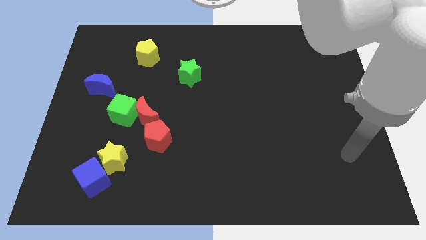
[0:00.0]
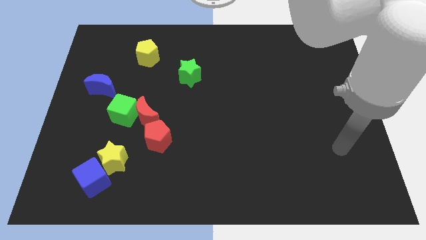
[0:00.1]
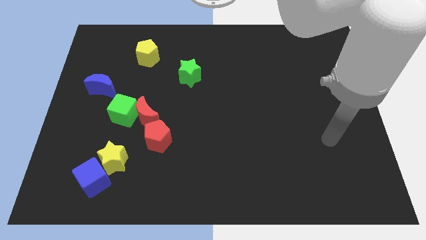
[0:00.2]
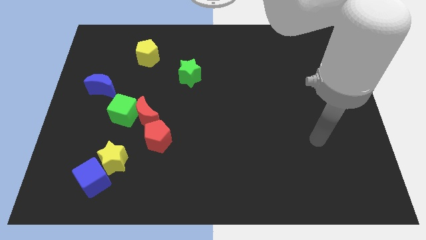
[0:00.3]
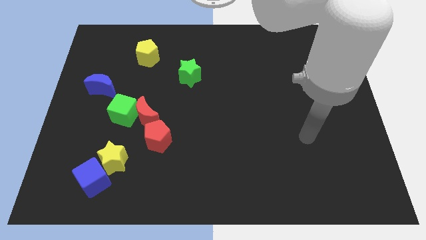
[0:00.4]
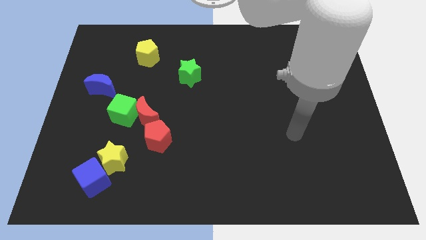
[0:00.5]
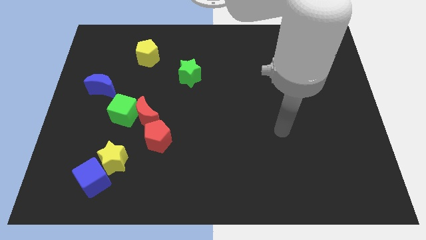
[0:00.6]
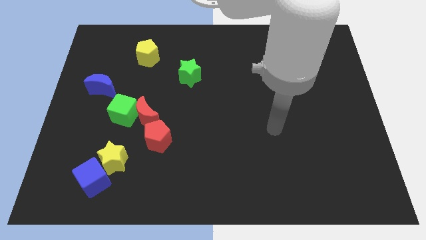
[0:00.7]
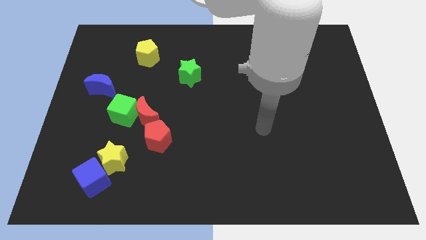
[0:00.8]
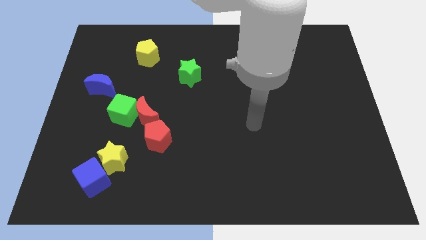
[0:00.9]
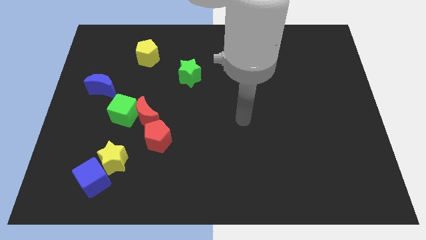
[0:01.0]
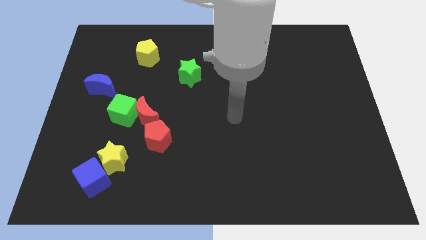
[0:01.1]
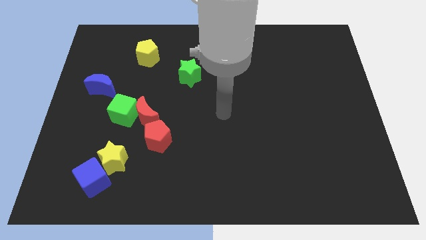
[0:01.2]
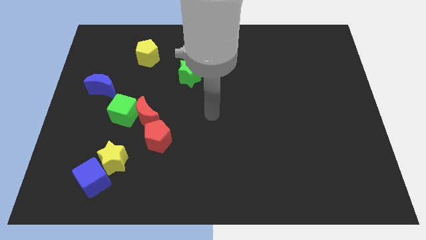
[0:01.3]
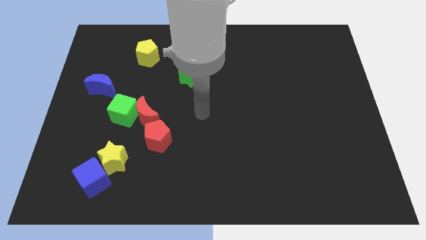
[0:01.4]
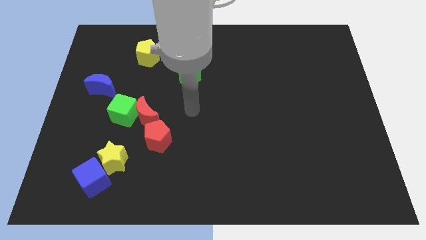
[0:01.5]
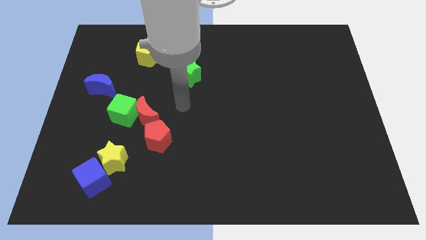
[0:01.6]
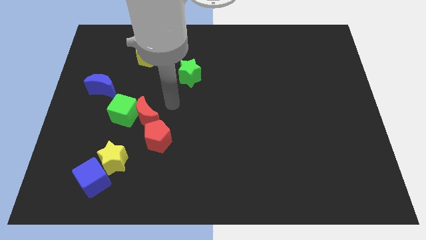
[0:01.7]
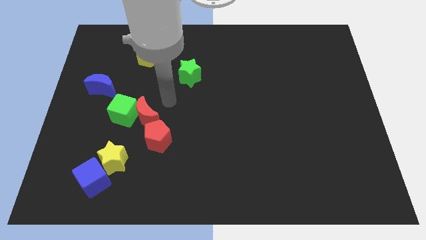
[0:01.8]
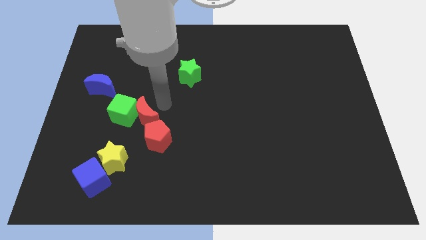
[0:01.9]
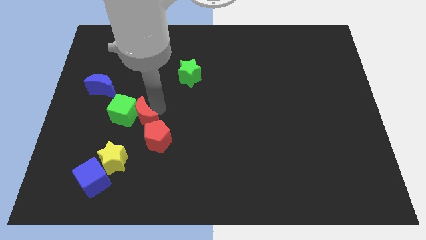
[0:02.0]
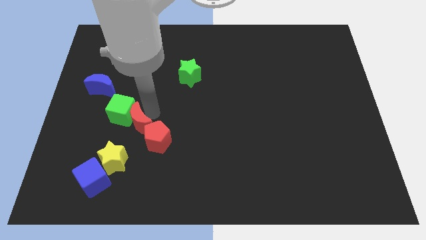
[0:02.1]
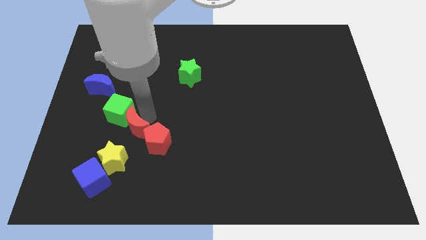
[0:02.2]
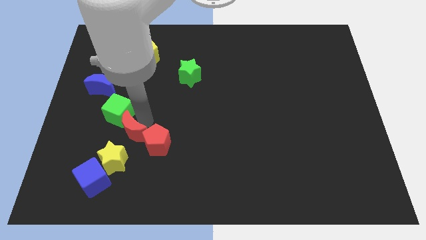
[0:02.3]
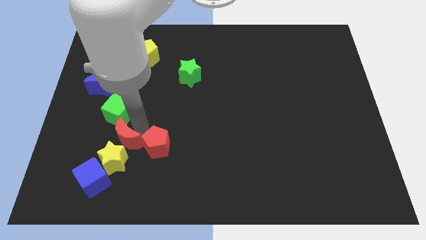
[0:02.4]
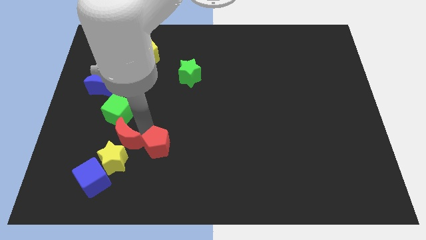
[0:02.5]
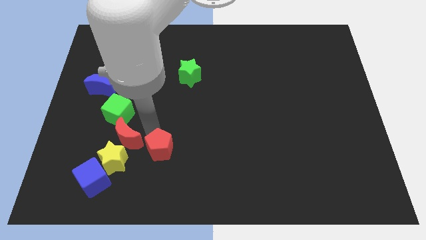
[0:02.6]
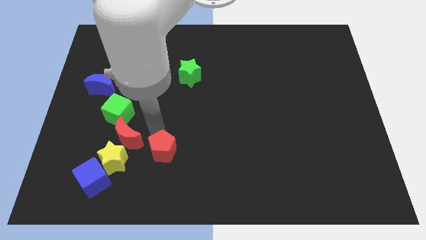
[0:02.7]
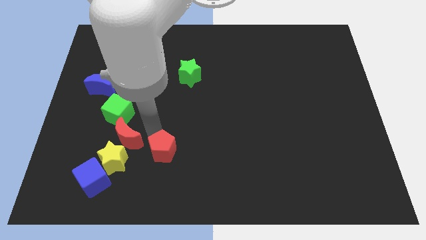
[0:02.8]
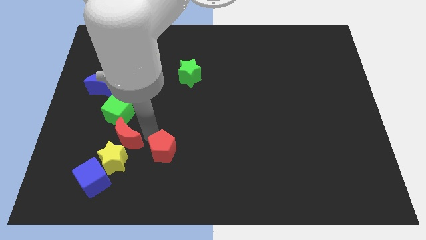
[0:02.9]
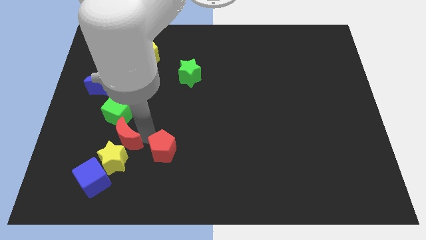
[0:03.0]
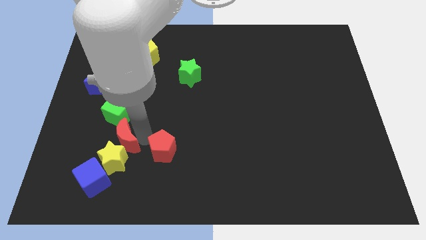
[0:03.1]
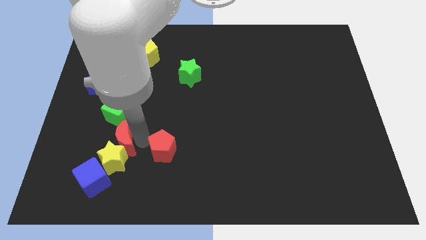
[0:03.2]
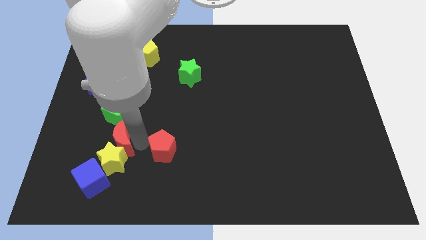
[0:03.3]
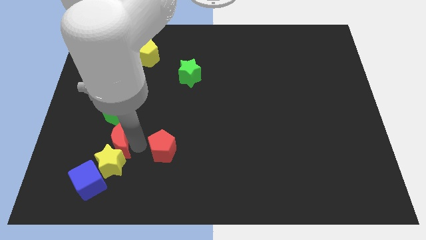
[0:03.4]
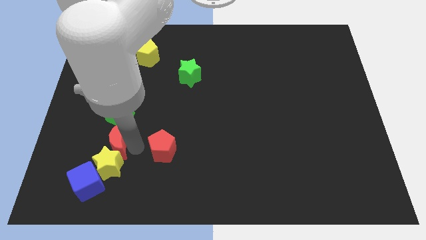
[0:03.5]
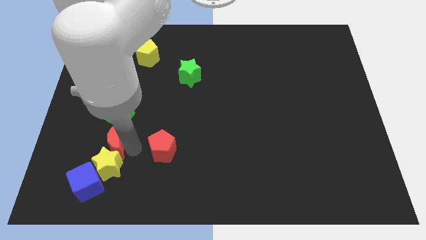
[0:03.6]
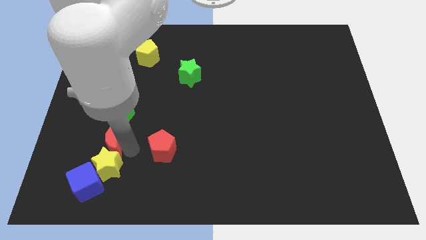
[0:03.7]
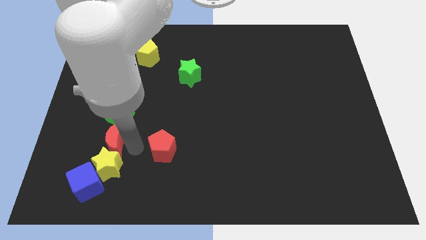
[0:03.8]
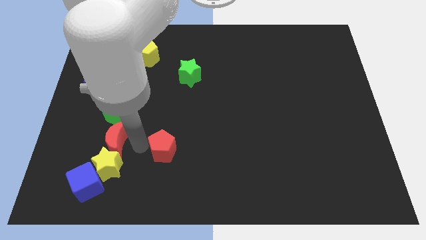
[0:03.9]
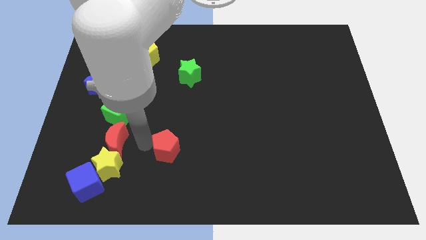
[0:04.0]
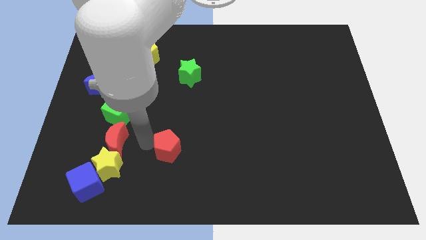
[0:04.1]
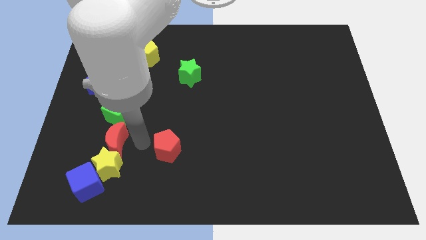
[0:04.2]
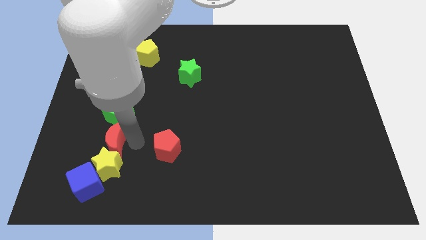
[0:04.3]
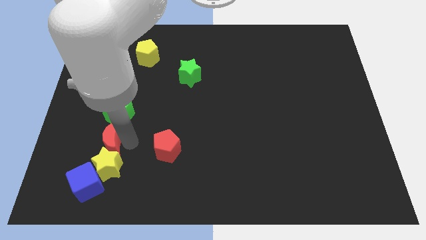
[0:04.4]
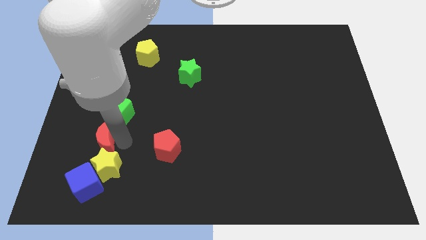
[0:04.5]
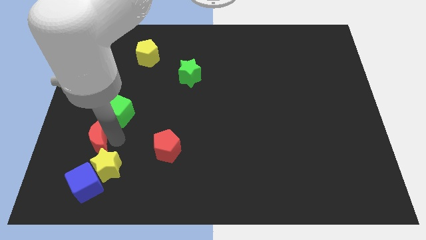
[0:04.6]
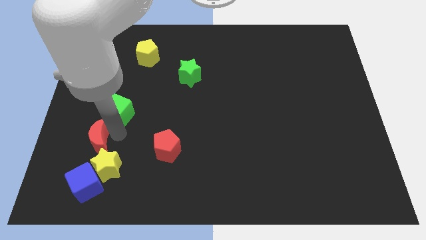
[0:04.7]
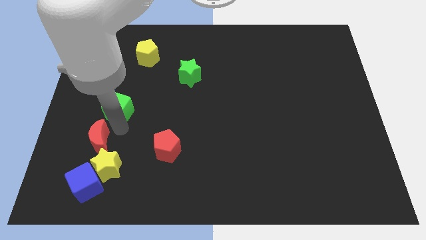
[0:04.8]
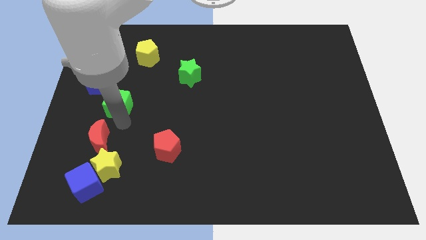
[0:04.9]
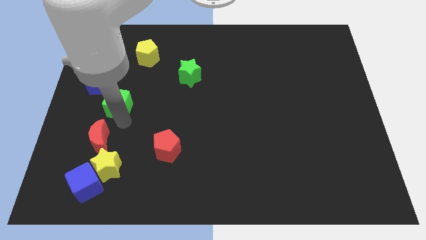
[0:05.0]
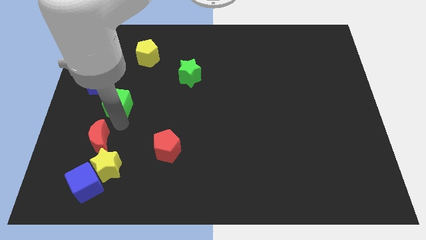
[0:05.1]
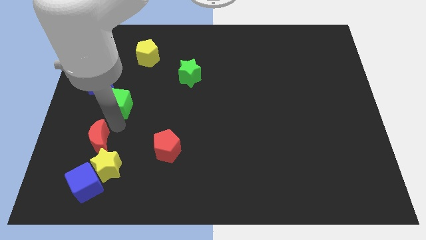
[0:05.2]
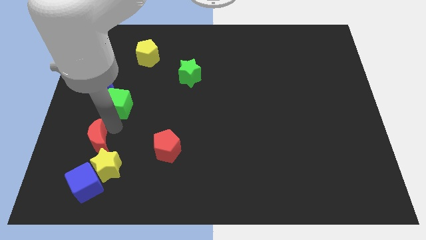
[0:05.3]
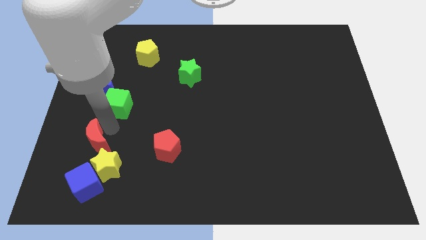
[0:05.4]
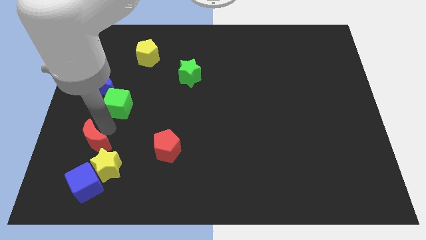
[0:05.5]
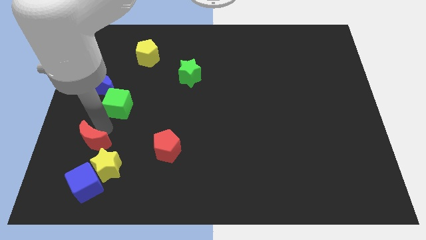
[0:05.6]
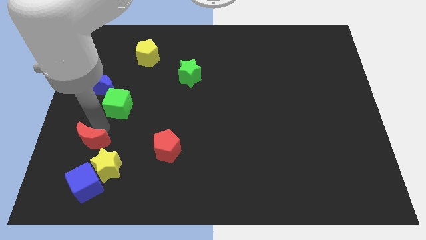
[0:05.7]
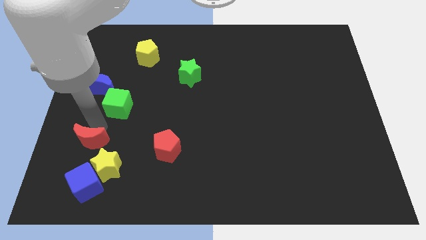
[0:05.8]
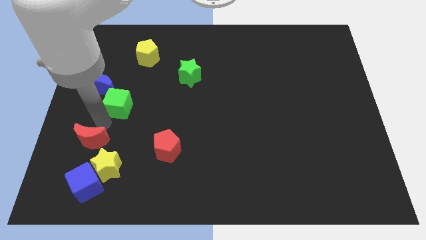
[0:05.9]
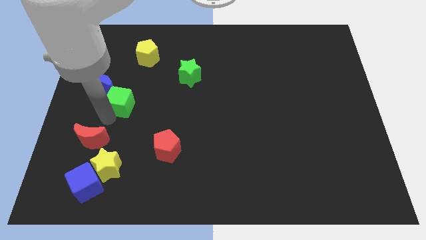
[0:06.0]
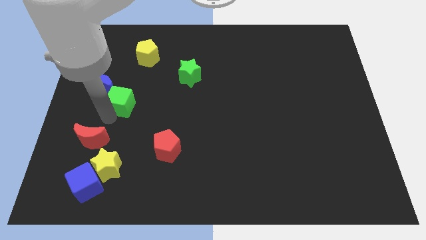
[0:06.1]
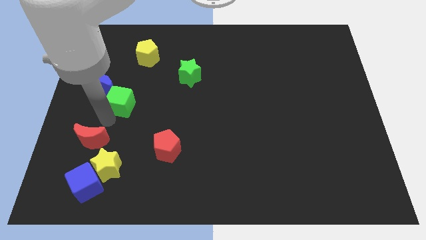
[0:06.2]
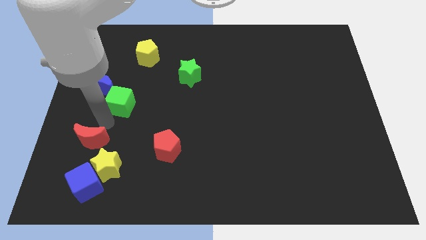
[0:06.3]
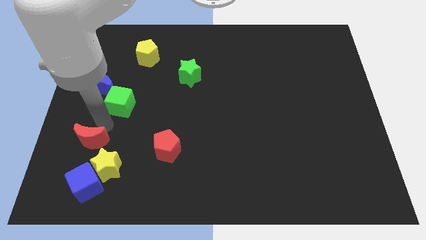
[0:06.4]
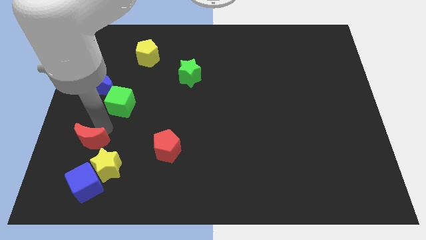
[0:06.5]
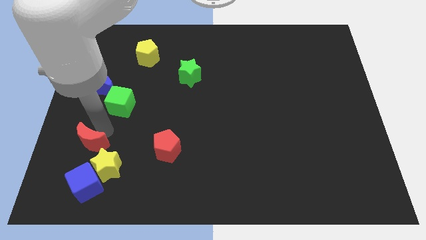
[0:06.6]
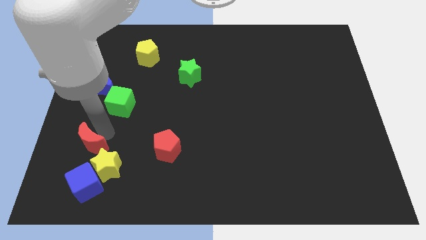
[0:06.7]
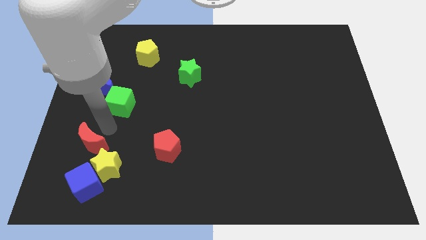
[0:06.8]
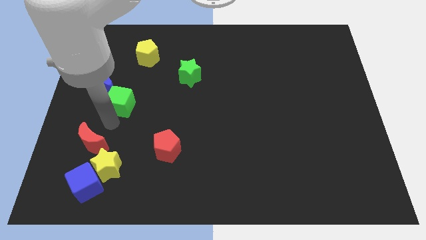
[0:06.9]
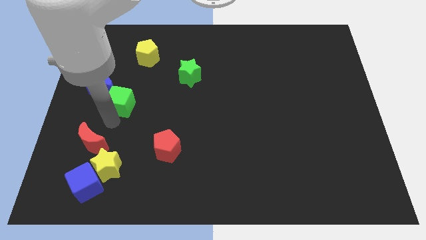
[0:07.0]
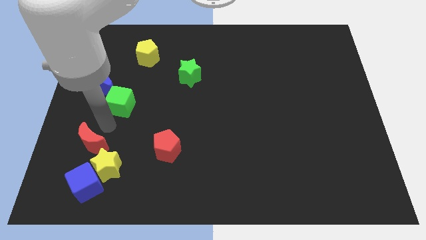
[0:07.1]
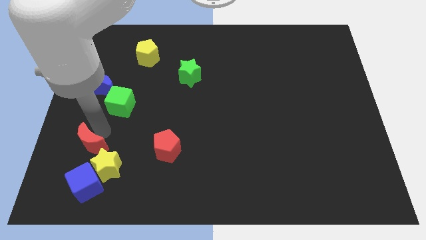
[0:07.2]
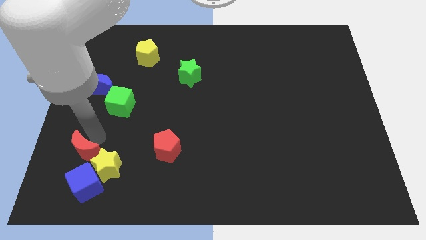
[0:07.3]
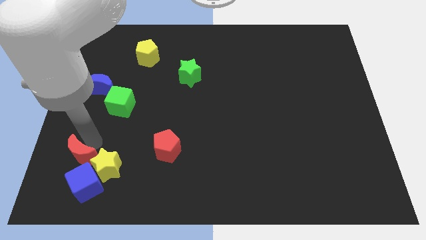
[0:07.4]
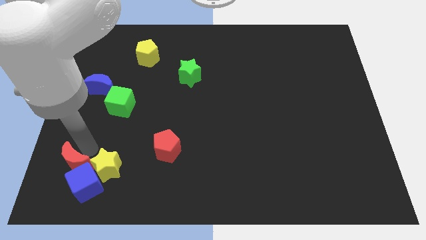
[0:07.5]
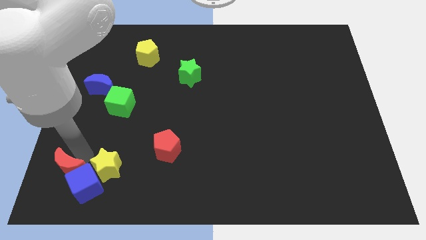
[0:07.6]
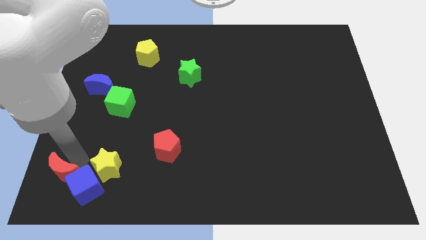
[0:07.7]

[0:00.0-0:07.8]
move the red moon to the bottom left of the board
